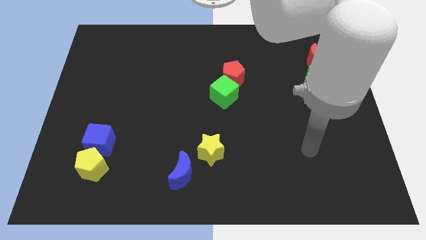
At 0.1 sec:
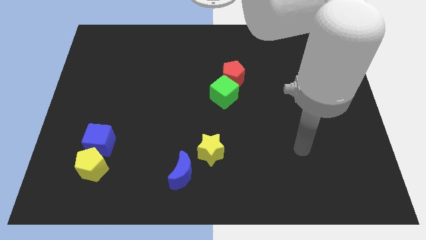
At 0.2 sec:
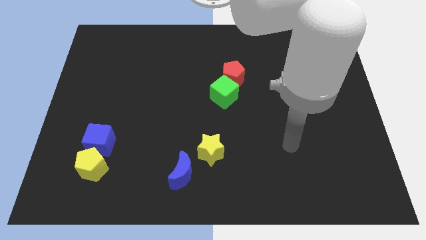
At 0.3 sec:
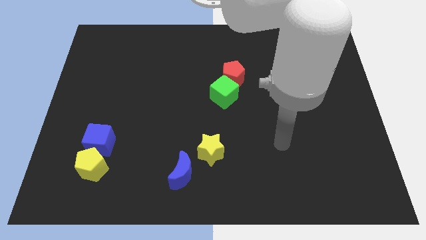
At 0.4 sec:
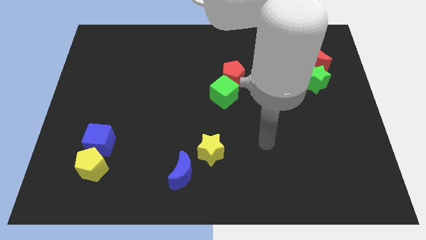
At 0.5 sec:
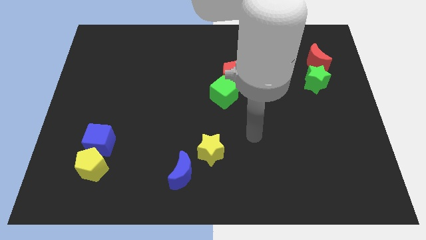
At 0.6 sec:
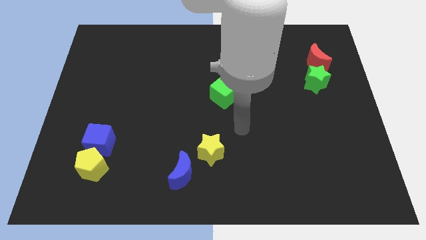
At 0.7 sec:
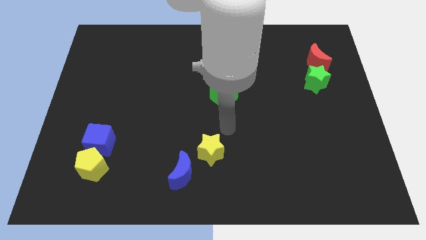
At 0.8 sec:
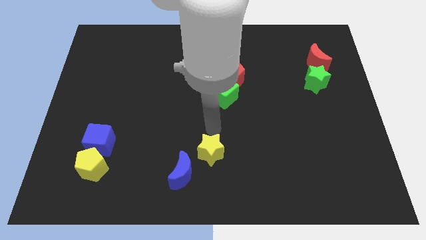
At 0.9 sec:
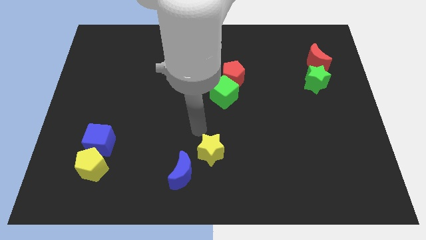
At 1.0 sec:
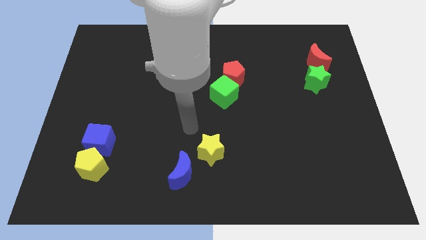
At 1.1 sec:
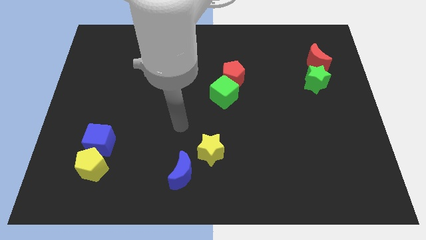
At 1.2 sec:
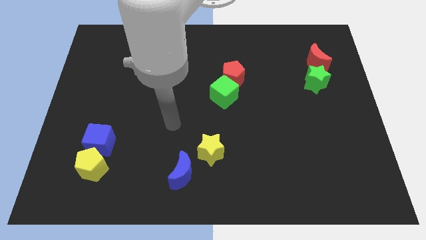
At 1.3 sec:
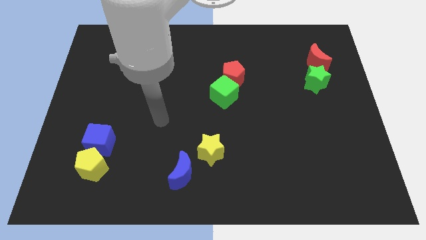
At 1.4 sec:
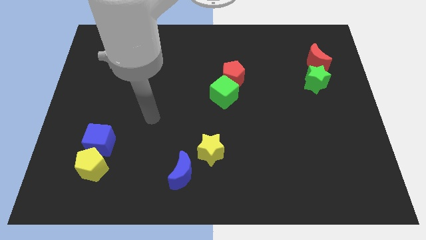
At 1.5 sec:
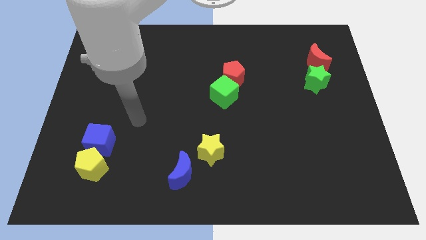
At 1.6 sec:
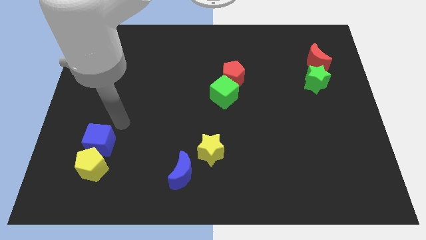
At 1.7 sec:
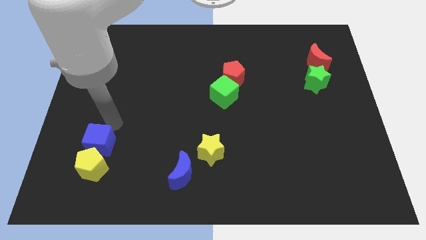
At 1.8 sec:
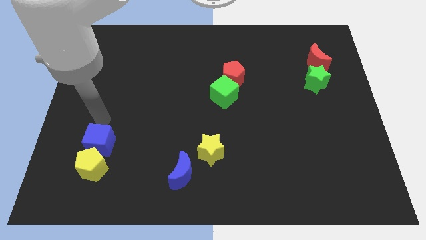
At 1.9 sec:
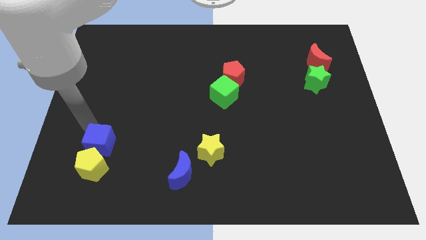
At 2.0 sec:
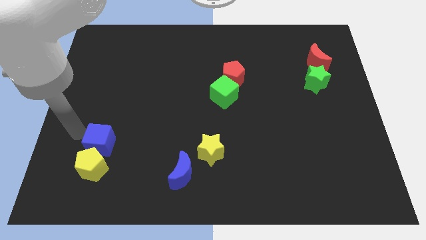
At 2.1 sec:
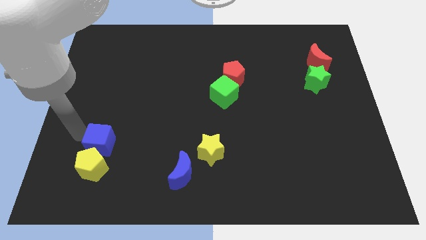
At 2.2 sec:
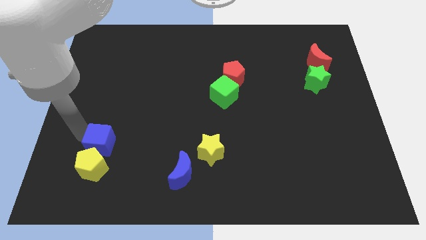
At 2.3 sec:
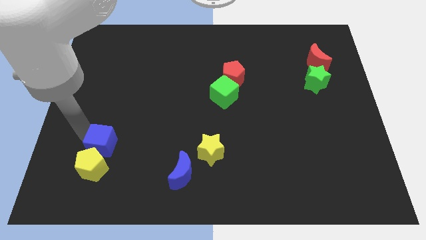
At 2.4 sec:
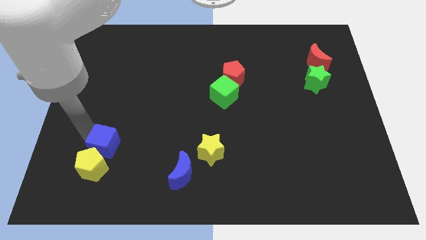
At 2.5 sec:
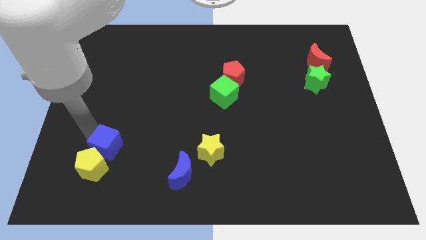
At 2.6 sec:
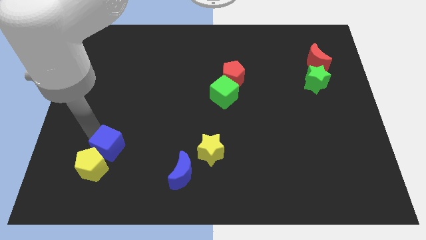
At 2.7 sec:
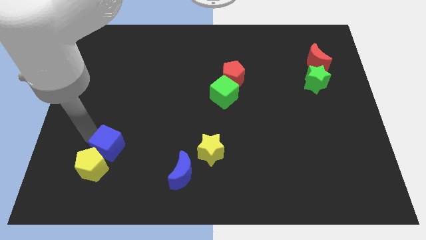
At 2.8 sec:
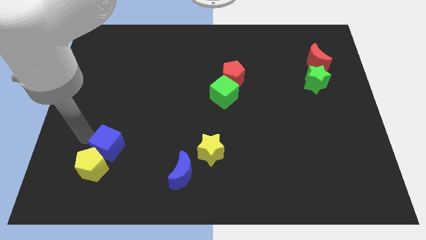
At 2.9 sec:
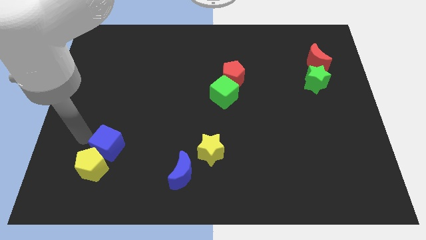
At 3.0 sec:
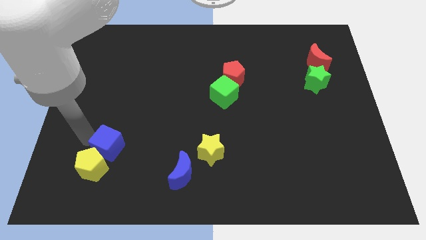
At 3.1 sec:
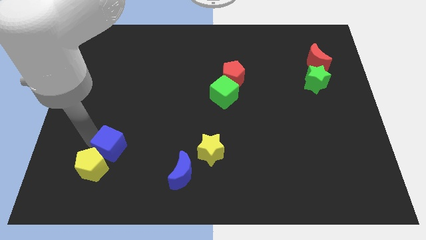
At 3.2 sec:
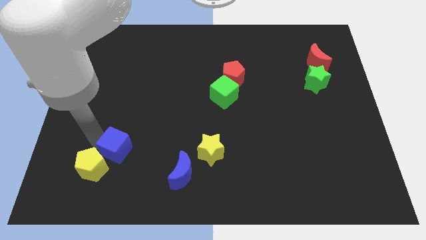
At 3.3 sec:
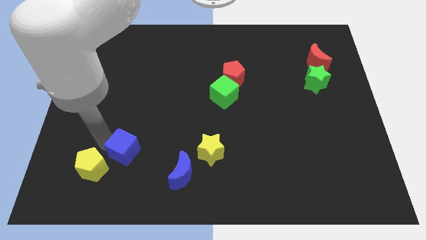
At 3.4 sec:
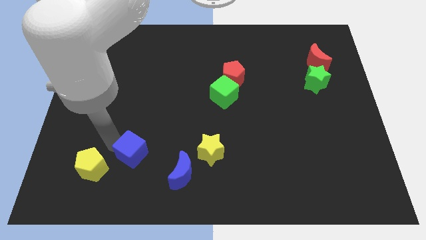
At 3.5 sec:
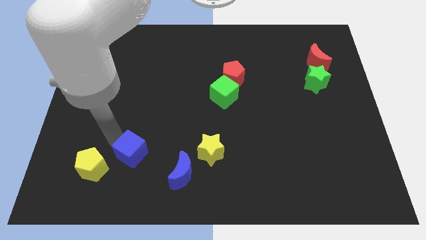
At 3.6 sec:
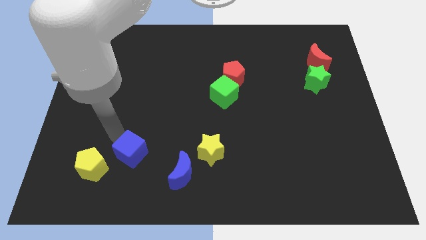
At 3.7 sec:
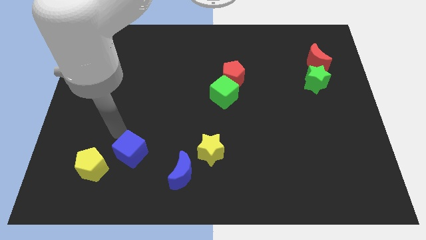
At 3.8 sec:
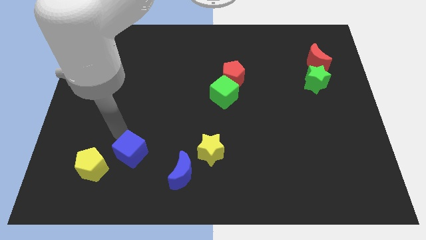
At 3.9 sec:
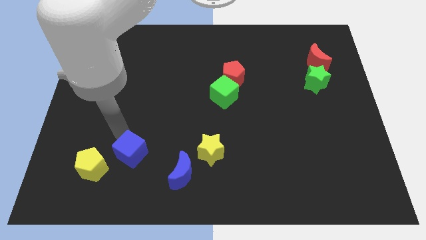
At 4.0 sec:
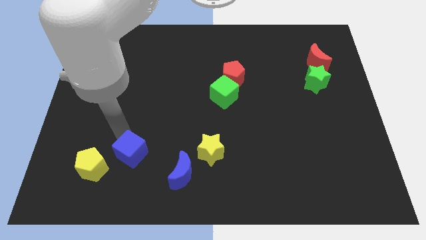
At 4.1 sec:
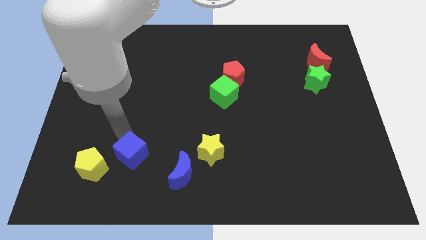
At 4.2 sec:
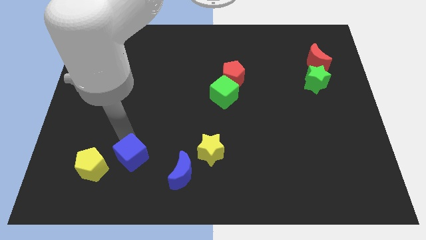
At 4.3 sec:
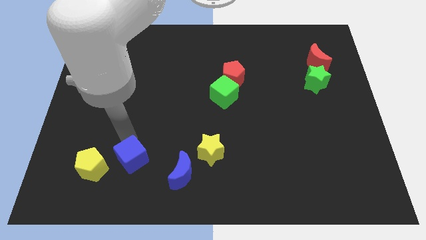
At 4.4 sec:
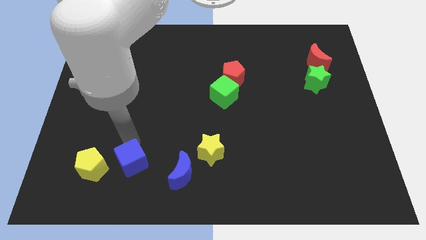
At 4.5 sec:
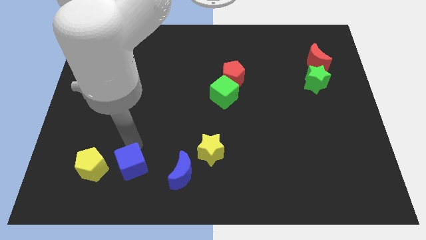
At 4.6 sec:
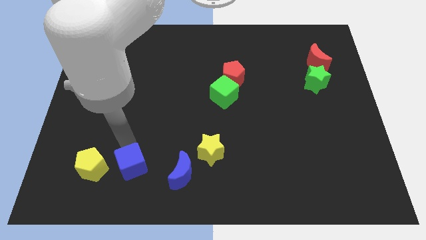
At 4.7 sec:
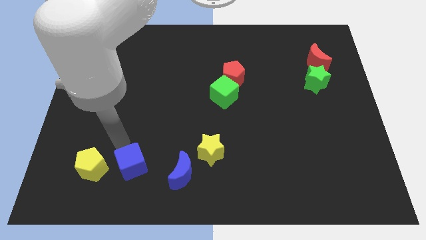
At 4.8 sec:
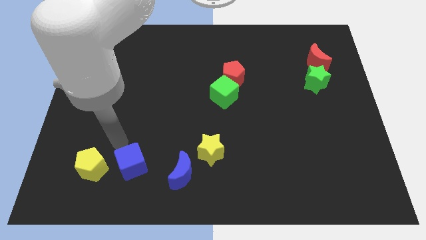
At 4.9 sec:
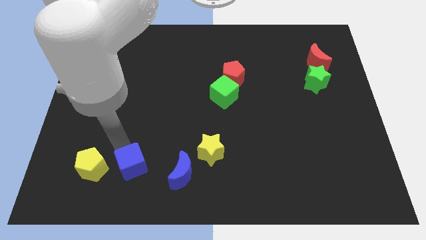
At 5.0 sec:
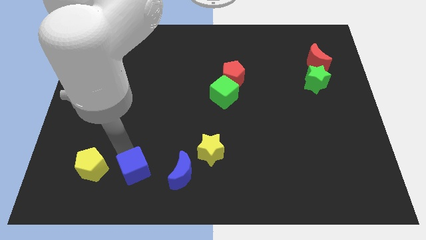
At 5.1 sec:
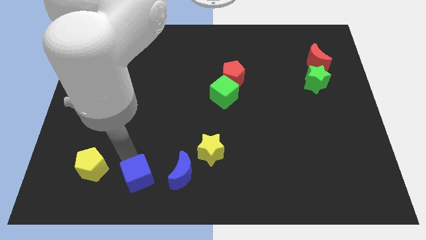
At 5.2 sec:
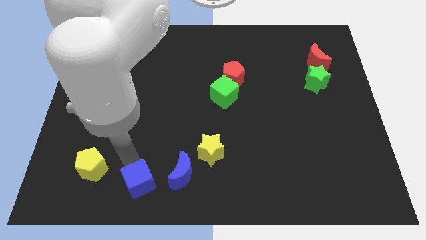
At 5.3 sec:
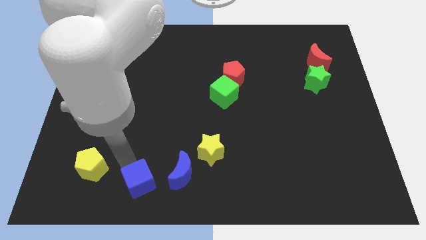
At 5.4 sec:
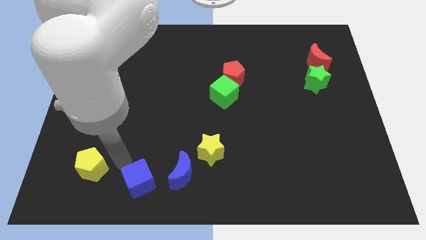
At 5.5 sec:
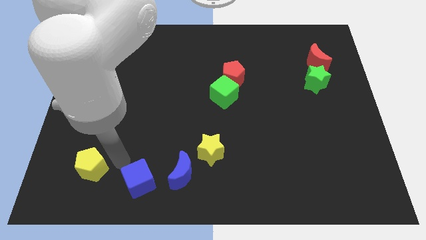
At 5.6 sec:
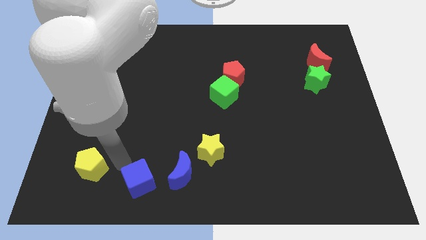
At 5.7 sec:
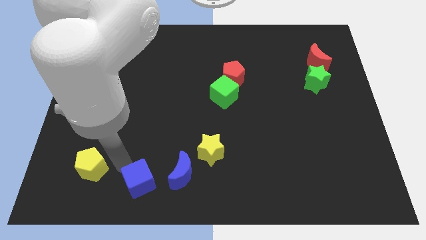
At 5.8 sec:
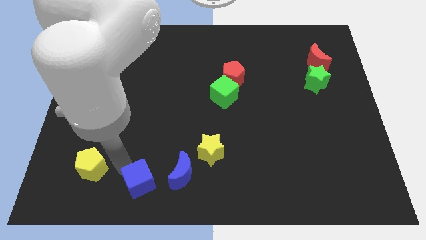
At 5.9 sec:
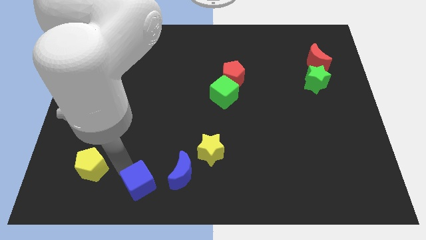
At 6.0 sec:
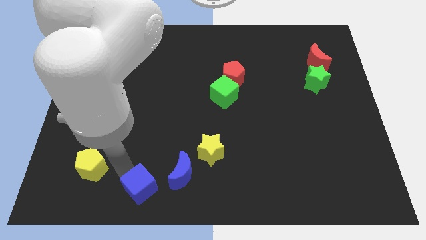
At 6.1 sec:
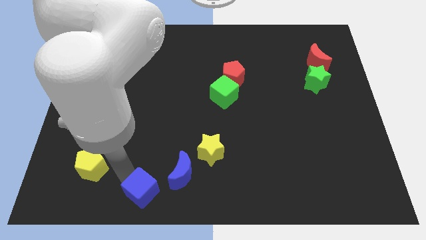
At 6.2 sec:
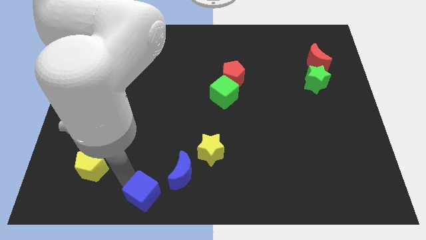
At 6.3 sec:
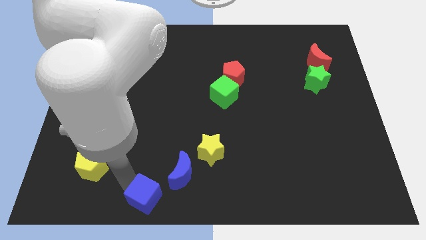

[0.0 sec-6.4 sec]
put the blue cube to the bottom

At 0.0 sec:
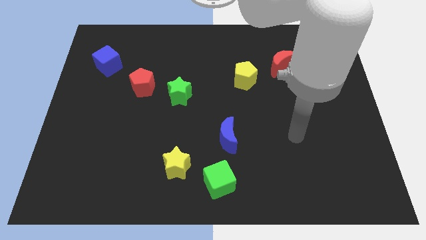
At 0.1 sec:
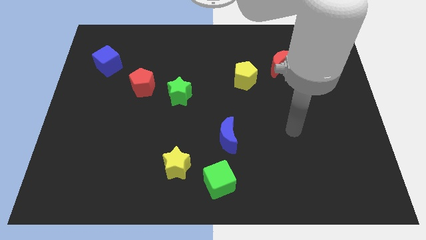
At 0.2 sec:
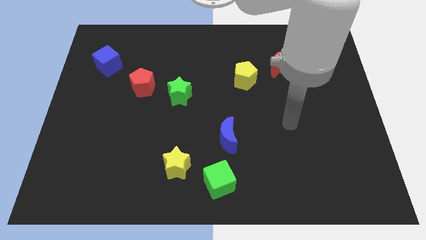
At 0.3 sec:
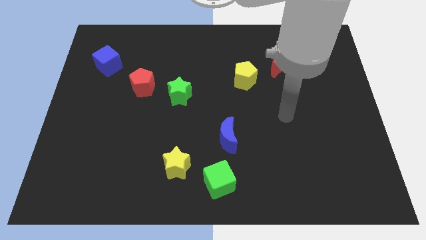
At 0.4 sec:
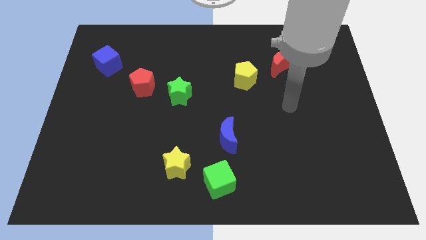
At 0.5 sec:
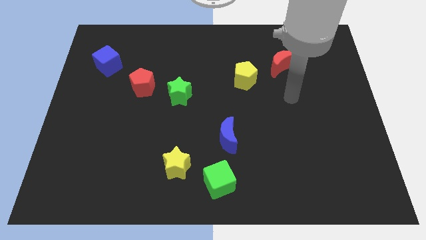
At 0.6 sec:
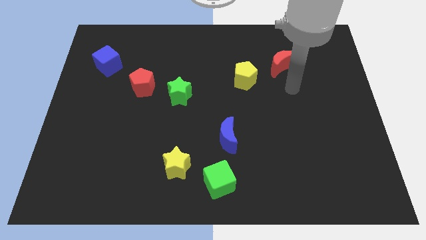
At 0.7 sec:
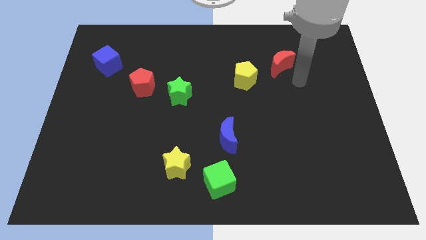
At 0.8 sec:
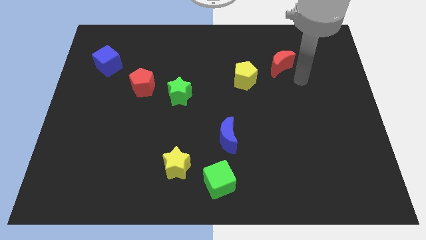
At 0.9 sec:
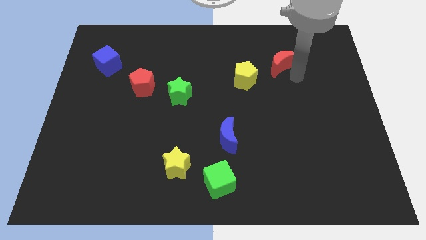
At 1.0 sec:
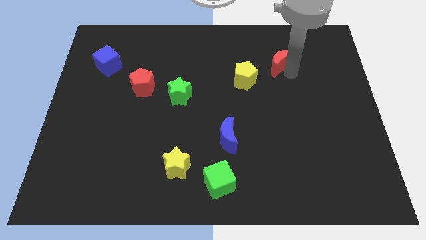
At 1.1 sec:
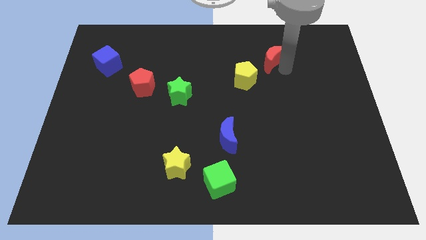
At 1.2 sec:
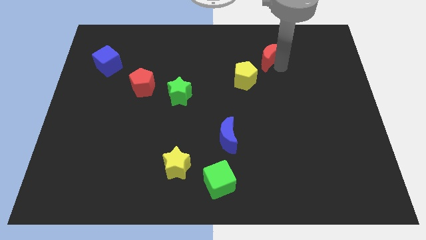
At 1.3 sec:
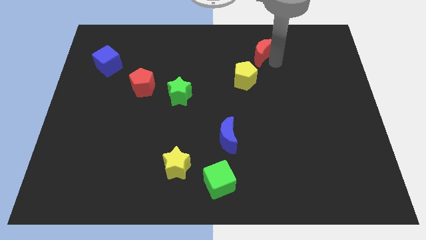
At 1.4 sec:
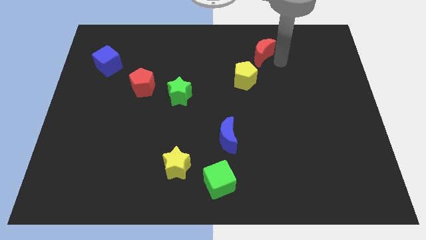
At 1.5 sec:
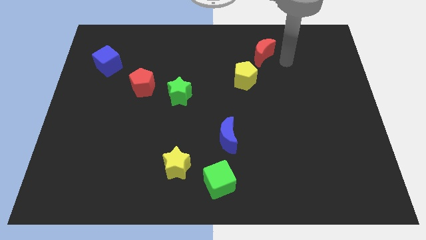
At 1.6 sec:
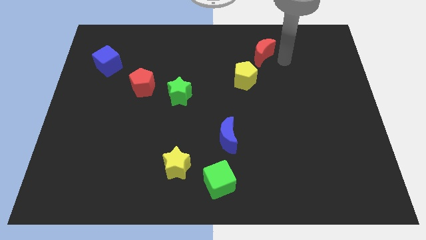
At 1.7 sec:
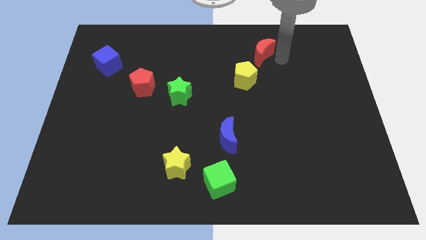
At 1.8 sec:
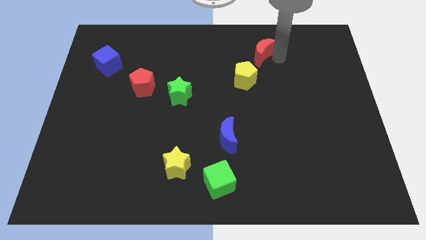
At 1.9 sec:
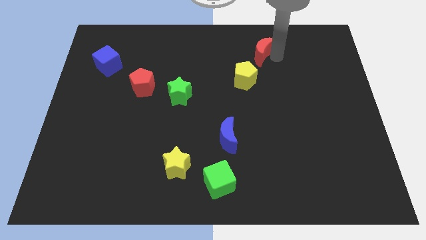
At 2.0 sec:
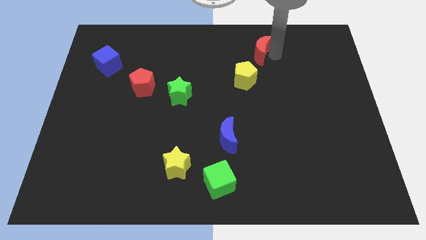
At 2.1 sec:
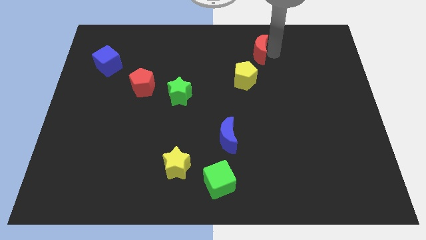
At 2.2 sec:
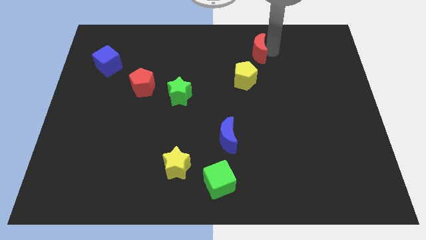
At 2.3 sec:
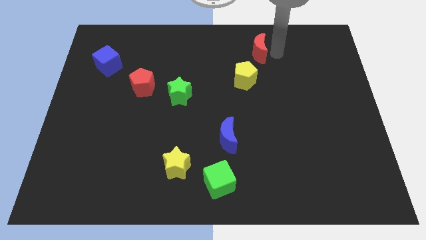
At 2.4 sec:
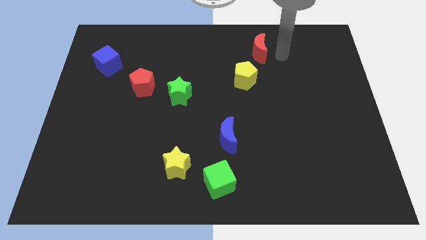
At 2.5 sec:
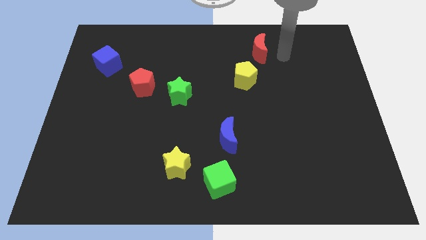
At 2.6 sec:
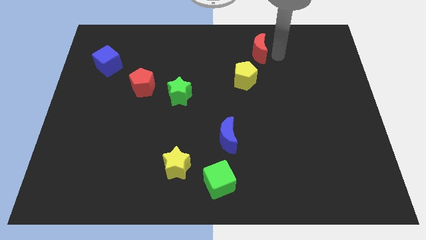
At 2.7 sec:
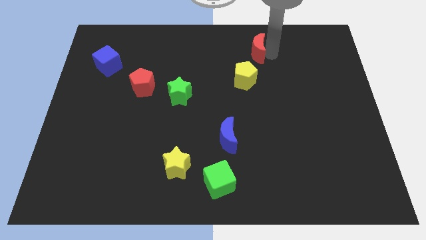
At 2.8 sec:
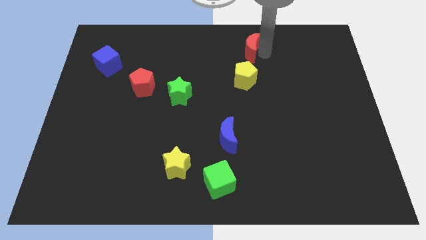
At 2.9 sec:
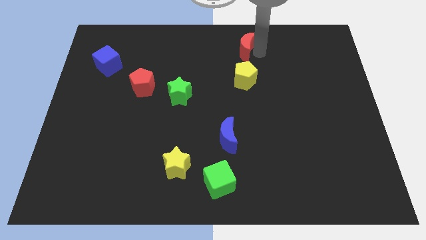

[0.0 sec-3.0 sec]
push the red moon to the top side
